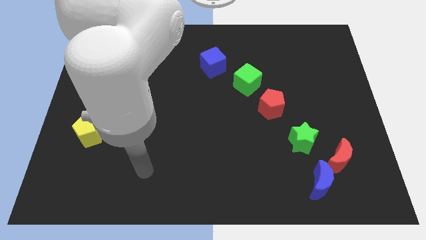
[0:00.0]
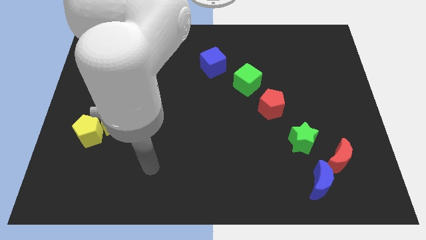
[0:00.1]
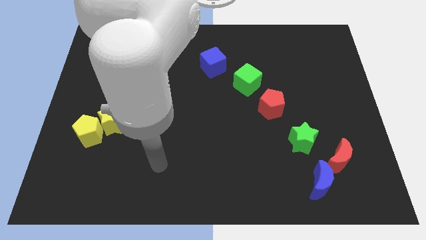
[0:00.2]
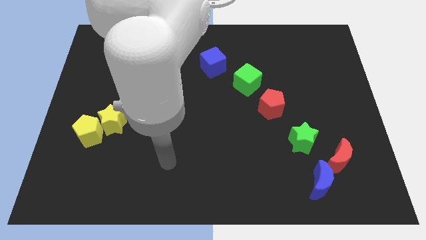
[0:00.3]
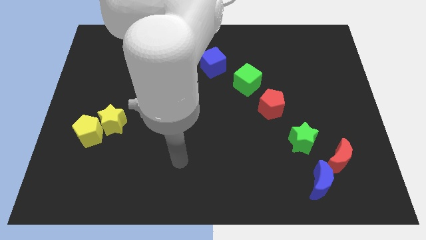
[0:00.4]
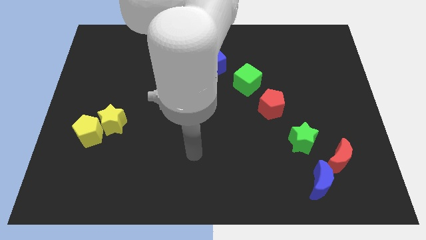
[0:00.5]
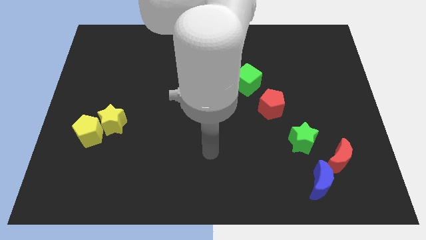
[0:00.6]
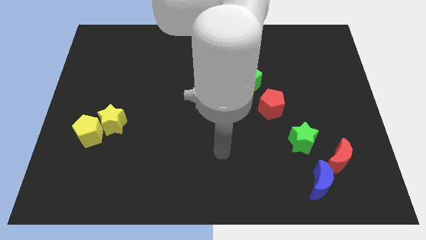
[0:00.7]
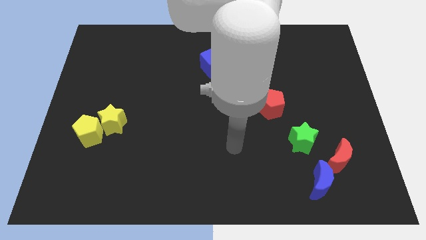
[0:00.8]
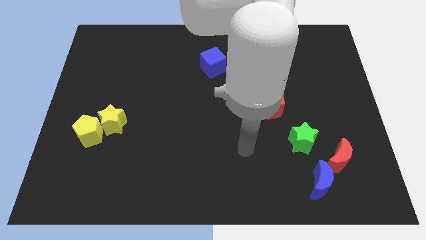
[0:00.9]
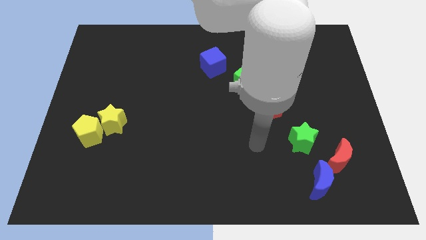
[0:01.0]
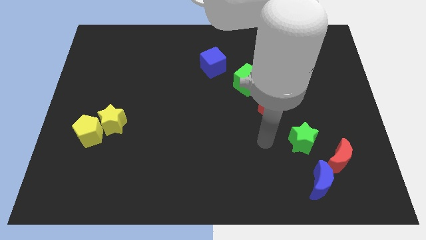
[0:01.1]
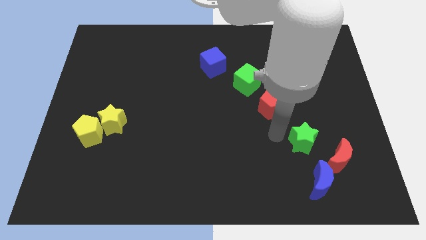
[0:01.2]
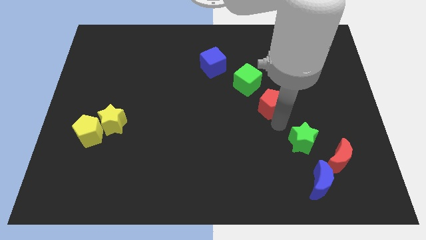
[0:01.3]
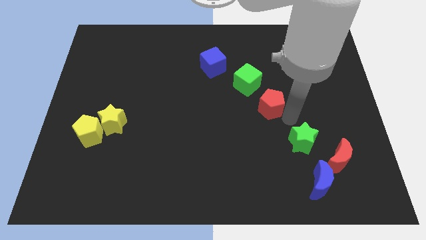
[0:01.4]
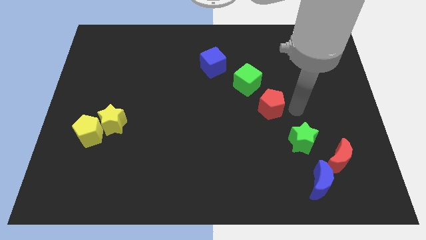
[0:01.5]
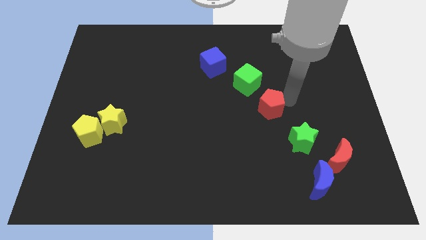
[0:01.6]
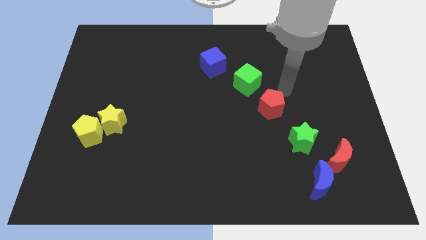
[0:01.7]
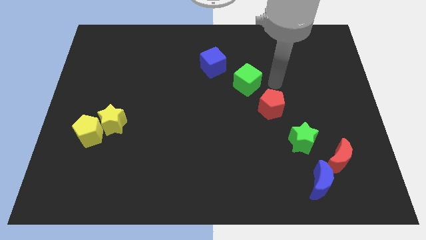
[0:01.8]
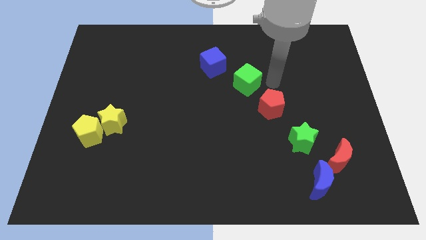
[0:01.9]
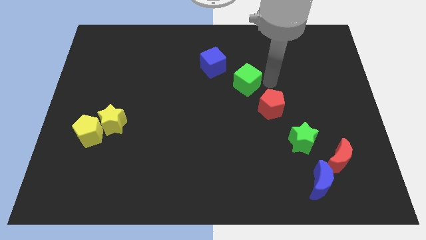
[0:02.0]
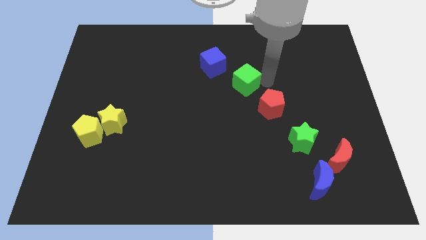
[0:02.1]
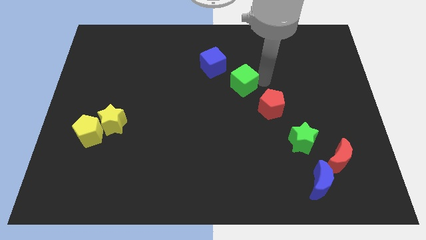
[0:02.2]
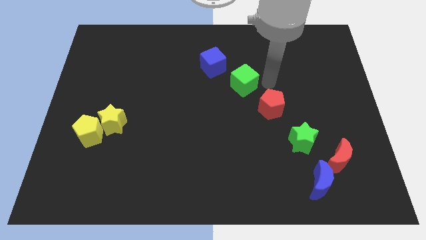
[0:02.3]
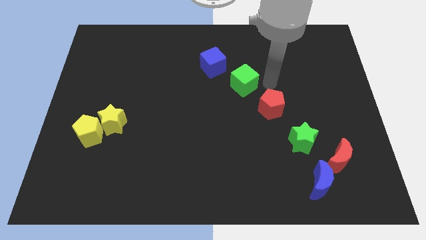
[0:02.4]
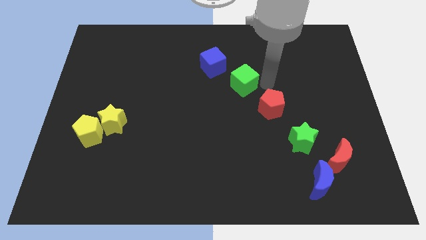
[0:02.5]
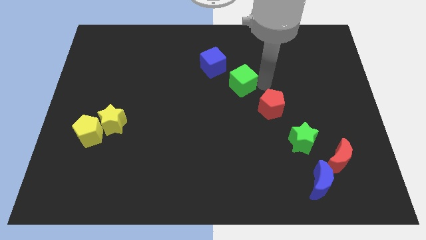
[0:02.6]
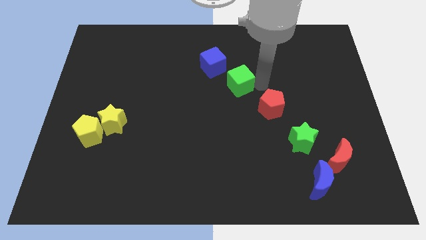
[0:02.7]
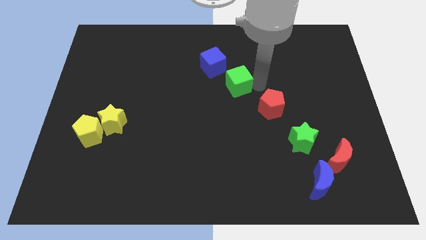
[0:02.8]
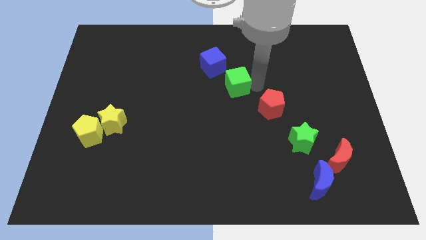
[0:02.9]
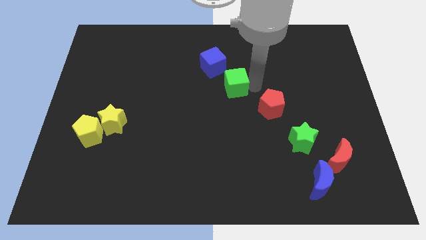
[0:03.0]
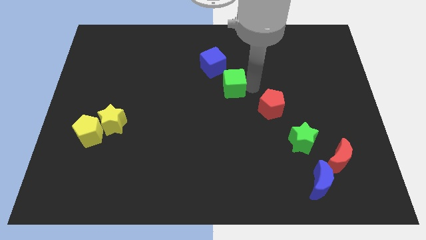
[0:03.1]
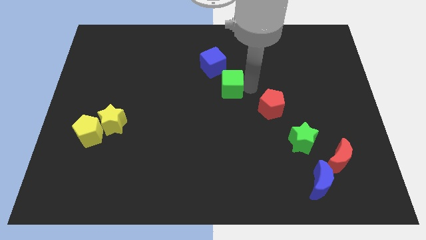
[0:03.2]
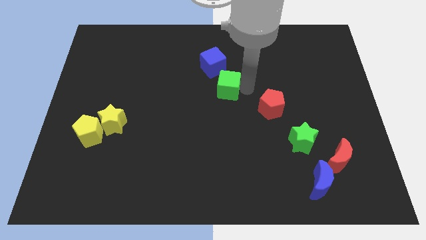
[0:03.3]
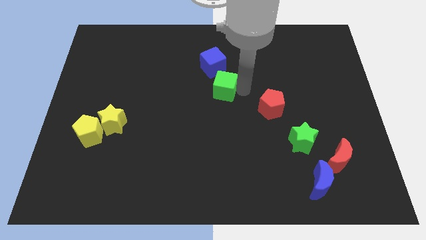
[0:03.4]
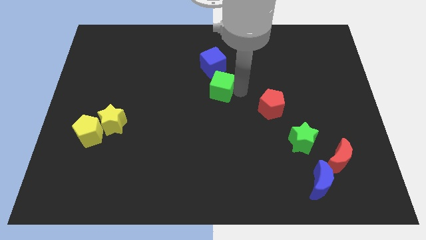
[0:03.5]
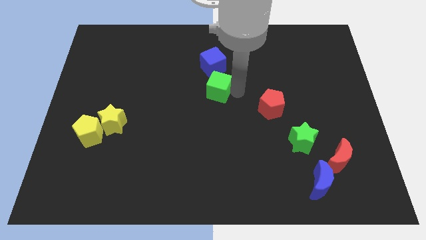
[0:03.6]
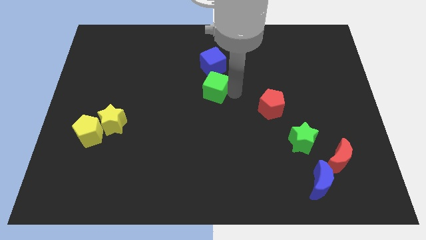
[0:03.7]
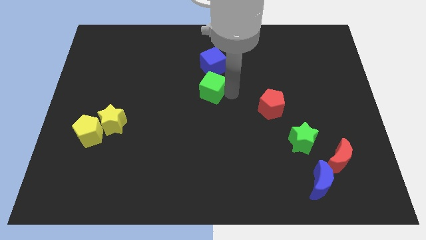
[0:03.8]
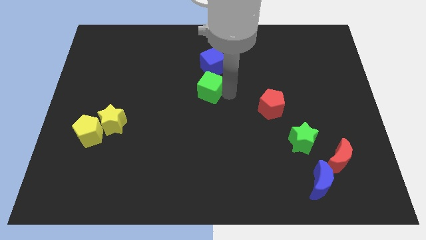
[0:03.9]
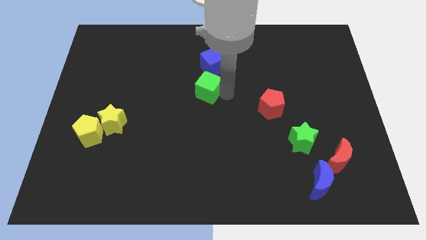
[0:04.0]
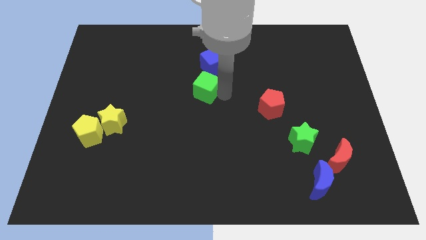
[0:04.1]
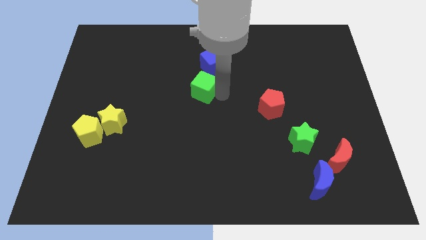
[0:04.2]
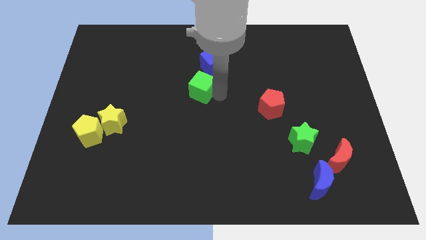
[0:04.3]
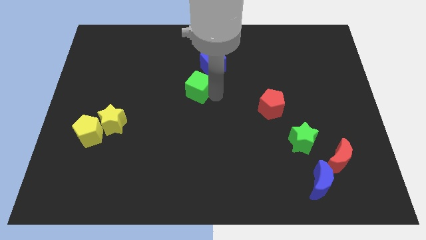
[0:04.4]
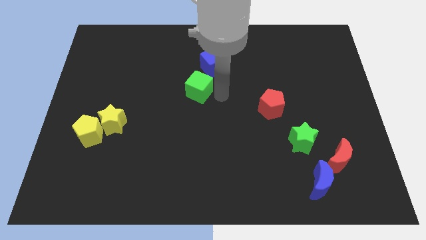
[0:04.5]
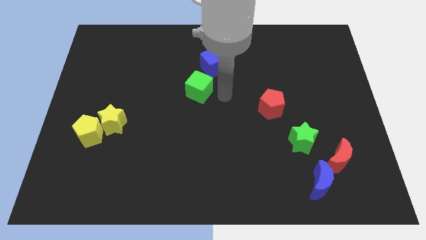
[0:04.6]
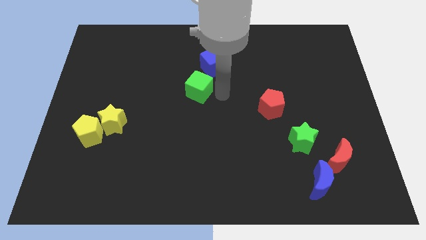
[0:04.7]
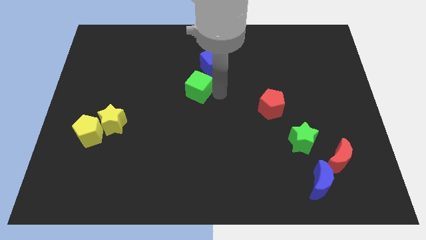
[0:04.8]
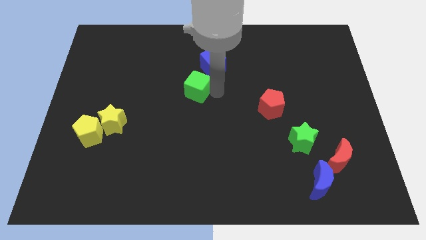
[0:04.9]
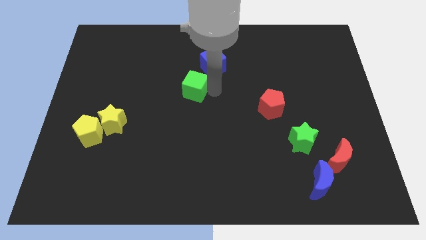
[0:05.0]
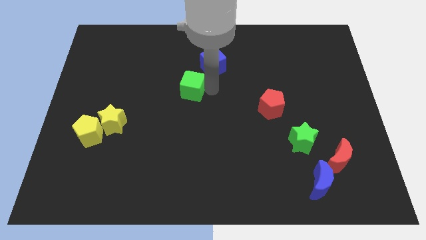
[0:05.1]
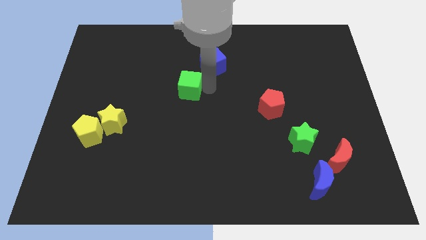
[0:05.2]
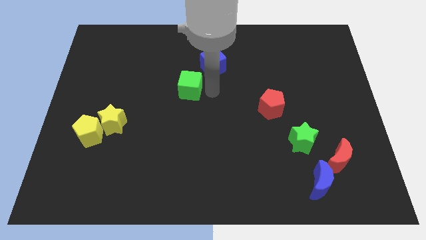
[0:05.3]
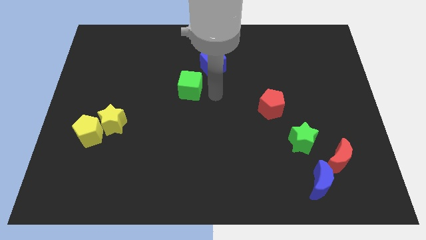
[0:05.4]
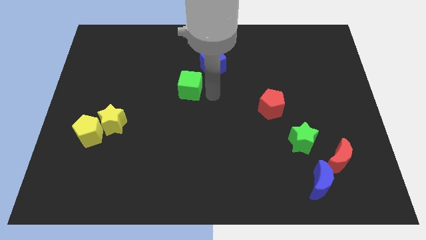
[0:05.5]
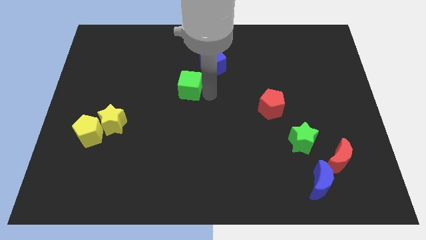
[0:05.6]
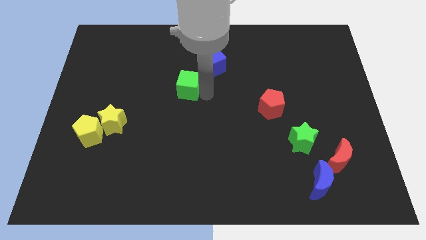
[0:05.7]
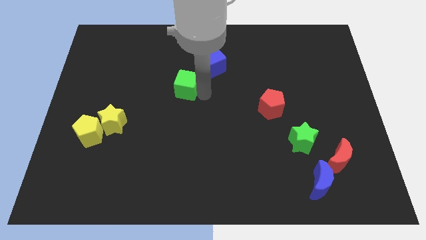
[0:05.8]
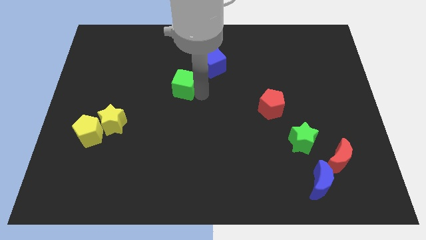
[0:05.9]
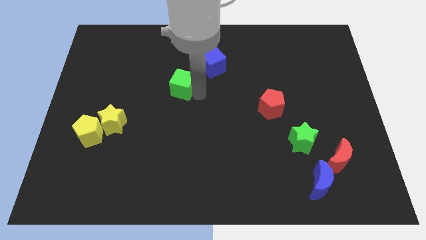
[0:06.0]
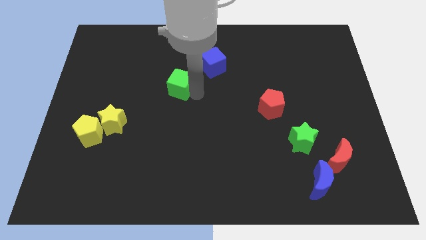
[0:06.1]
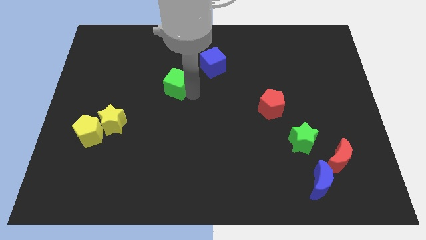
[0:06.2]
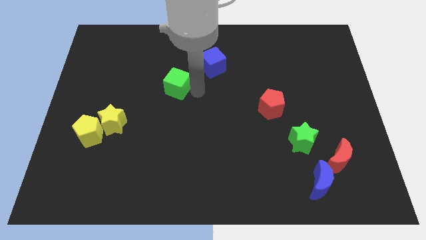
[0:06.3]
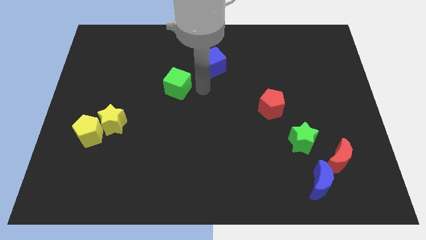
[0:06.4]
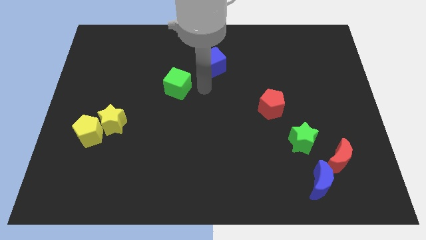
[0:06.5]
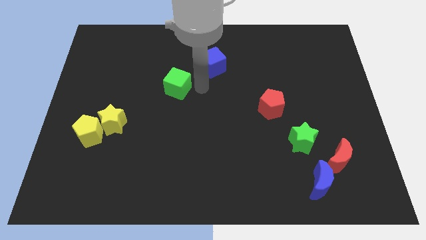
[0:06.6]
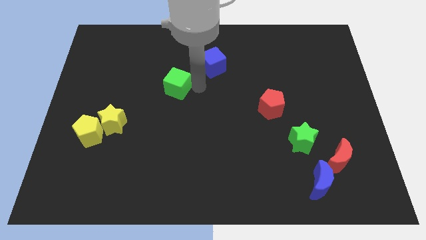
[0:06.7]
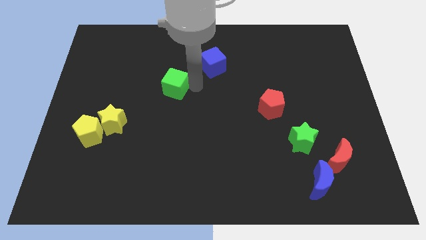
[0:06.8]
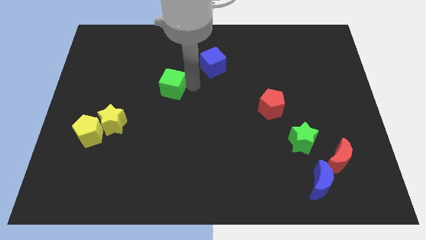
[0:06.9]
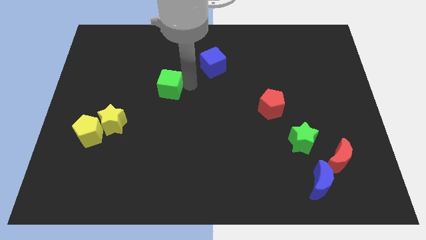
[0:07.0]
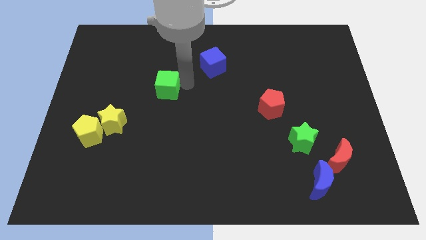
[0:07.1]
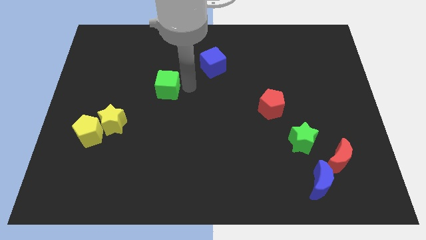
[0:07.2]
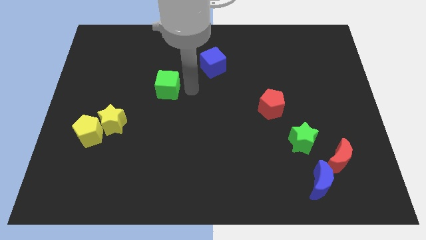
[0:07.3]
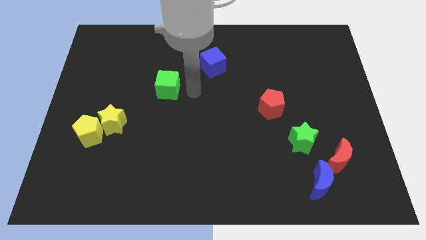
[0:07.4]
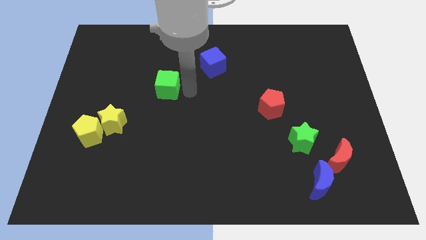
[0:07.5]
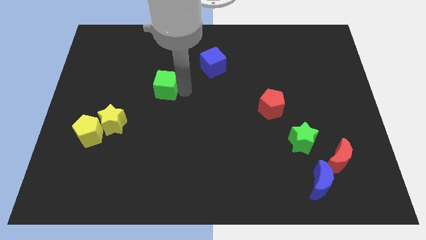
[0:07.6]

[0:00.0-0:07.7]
move the green cube left

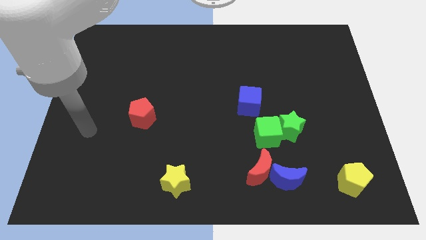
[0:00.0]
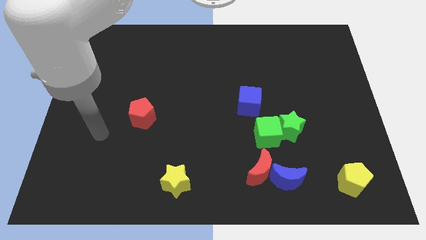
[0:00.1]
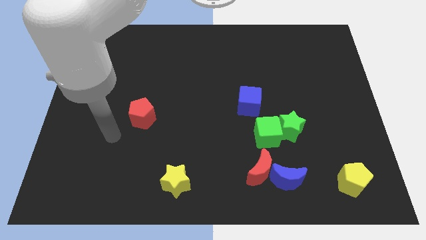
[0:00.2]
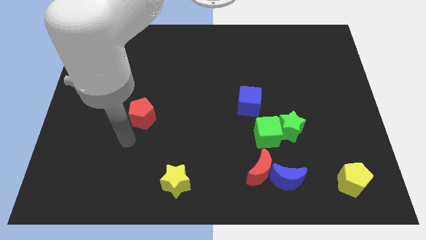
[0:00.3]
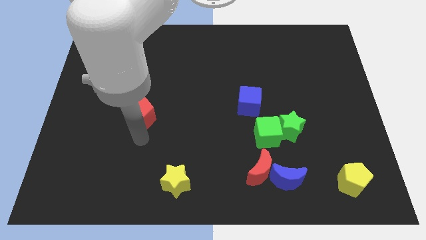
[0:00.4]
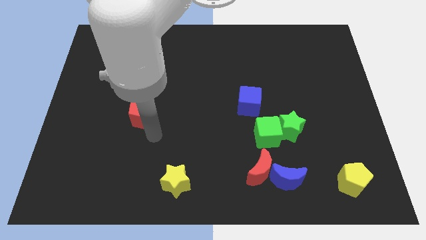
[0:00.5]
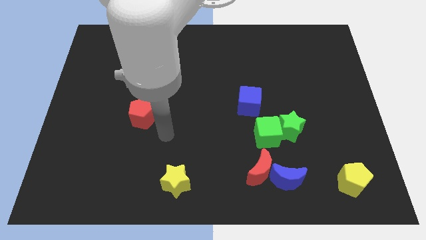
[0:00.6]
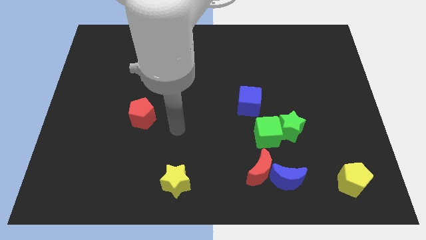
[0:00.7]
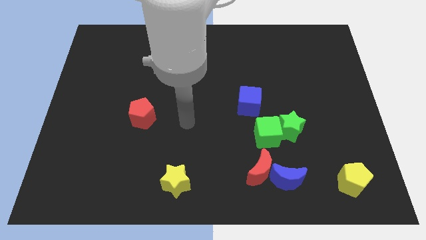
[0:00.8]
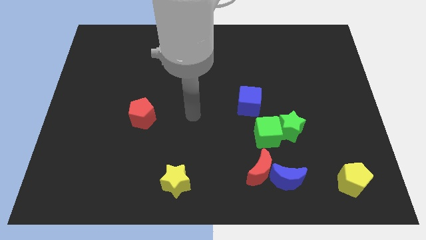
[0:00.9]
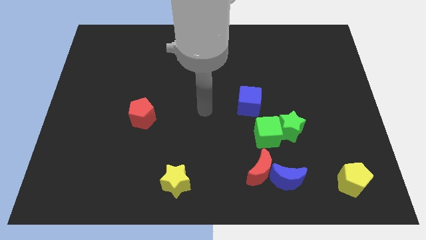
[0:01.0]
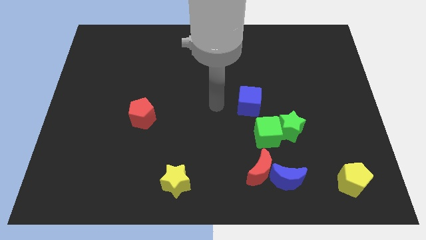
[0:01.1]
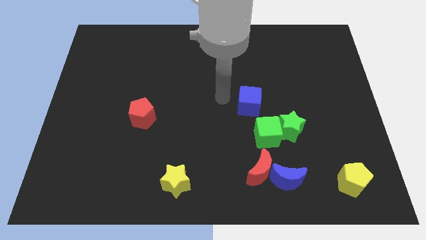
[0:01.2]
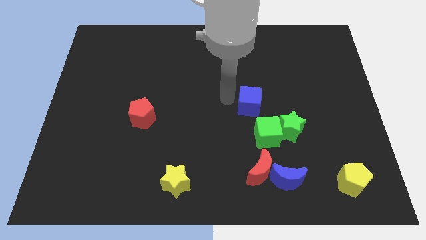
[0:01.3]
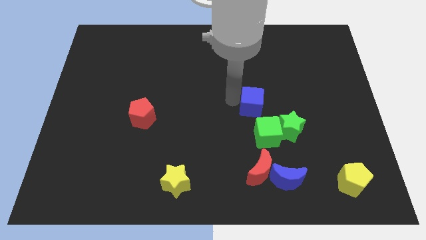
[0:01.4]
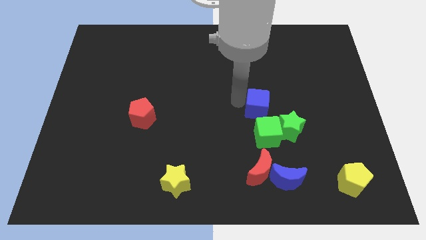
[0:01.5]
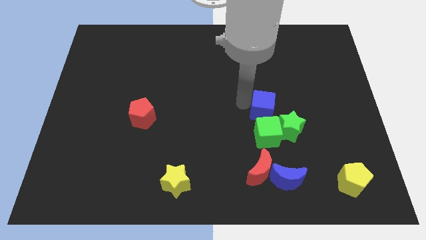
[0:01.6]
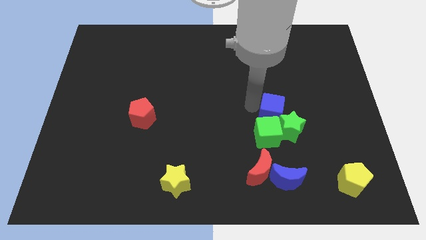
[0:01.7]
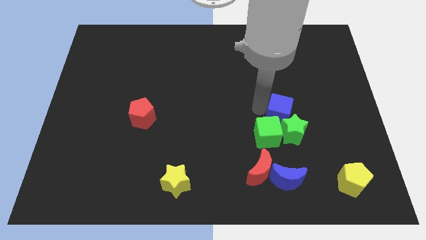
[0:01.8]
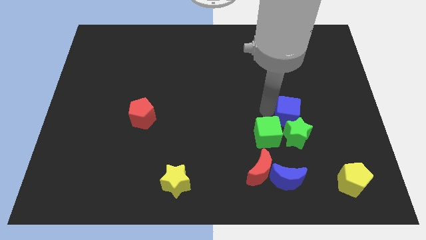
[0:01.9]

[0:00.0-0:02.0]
slide the blue cube down and then to the right a little bit
